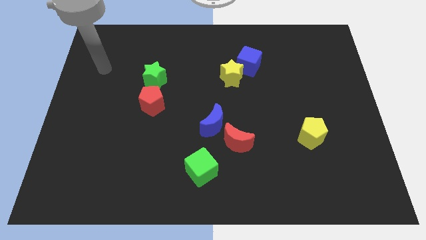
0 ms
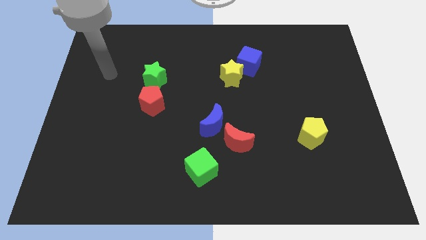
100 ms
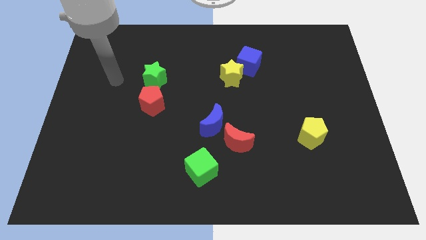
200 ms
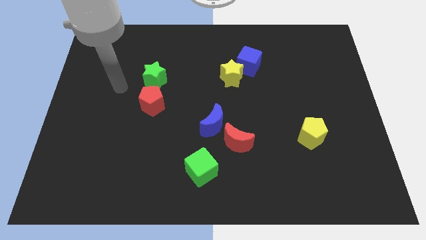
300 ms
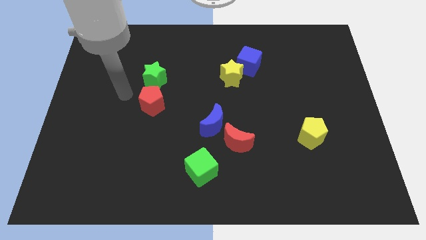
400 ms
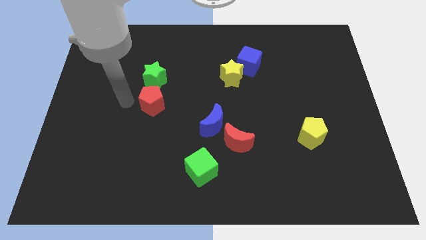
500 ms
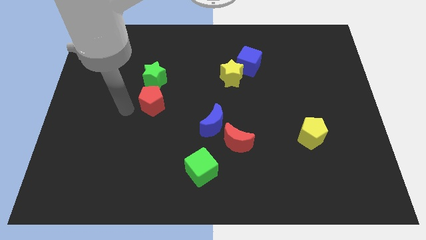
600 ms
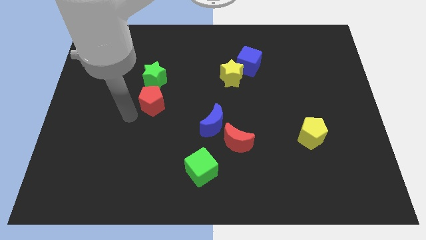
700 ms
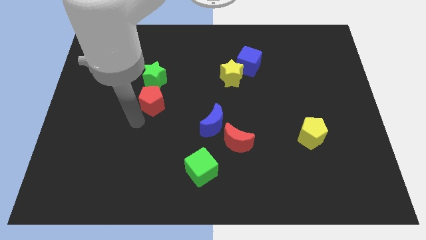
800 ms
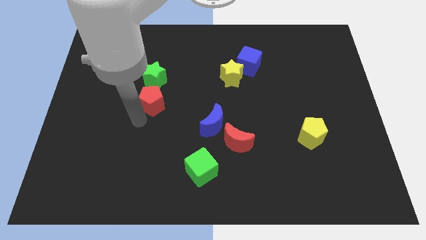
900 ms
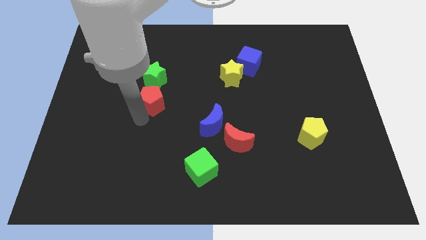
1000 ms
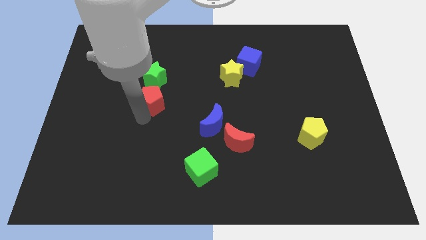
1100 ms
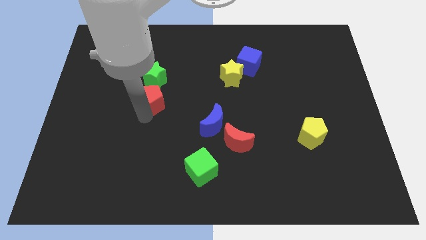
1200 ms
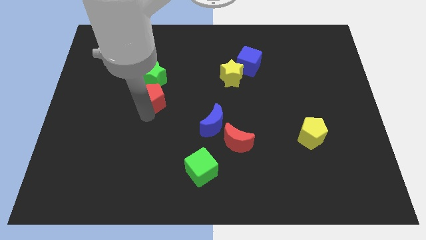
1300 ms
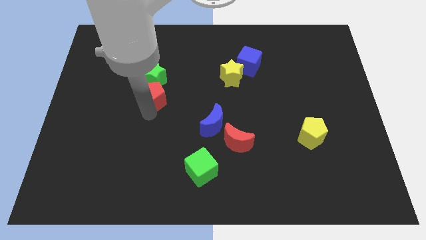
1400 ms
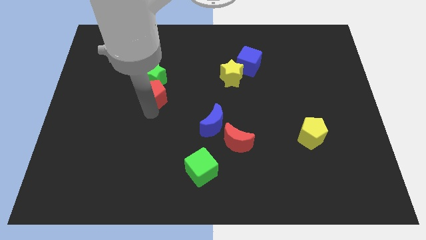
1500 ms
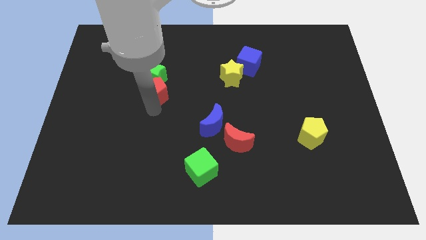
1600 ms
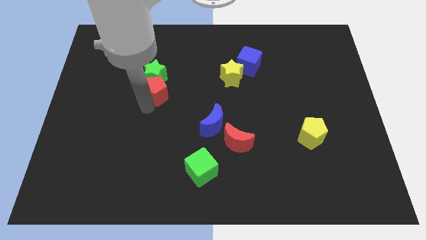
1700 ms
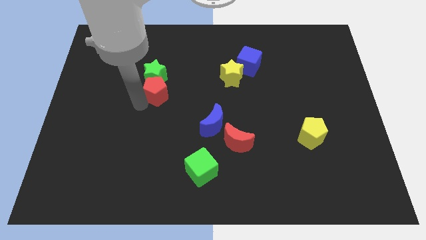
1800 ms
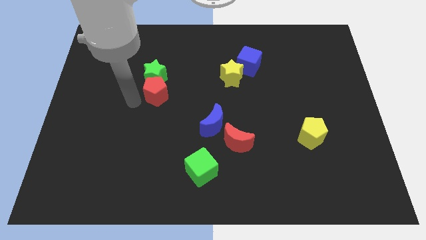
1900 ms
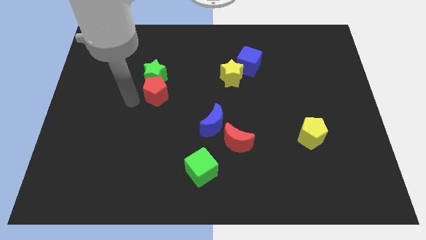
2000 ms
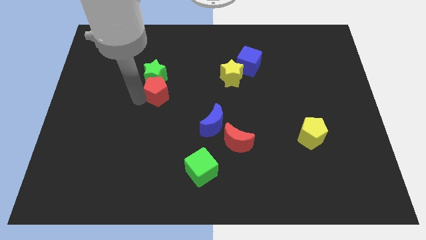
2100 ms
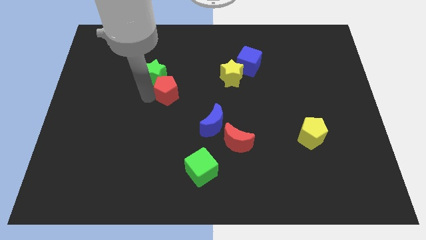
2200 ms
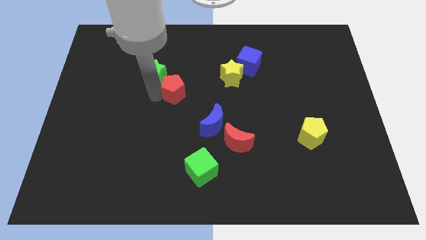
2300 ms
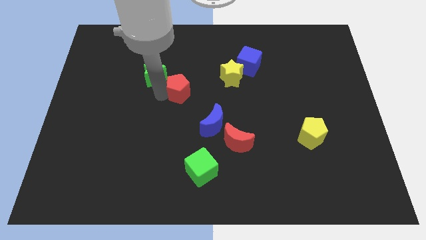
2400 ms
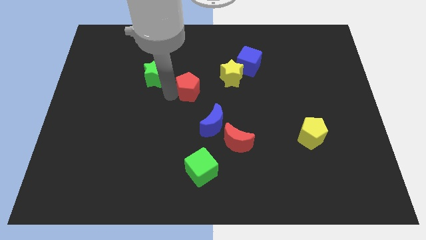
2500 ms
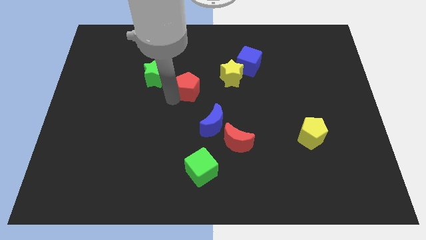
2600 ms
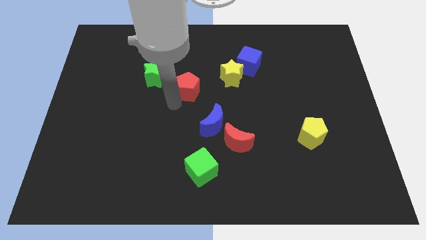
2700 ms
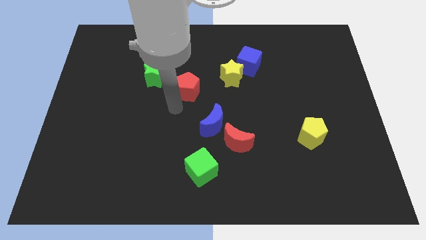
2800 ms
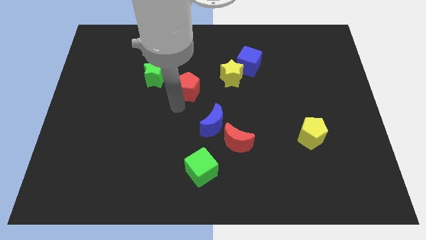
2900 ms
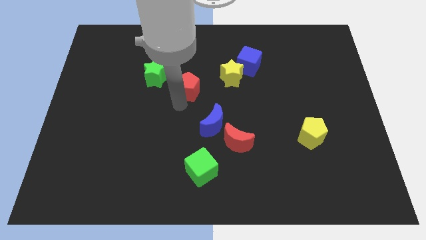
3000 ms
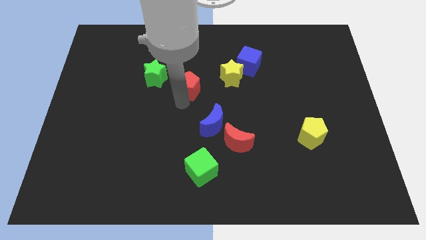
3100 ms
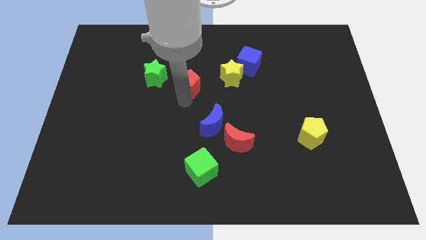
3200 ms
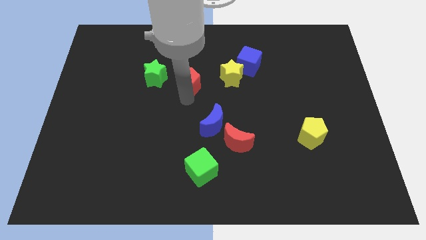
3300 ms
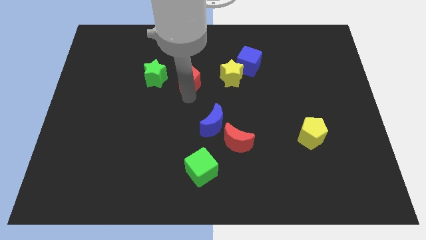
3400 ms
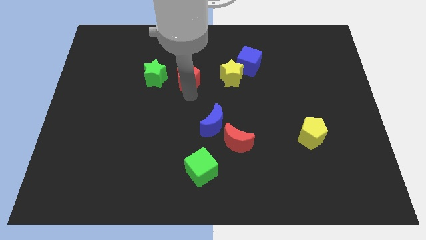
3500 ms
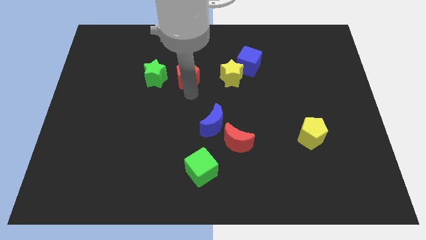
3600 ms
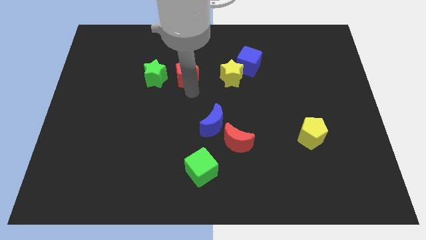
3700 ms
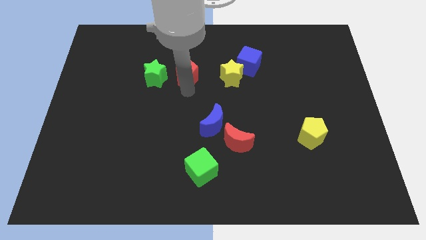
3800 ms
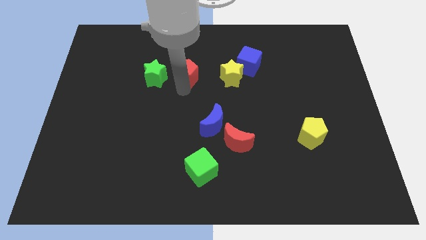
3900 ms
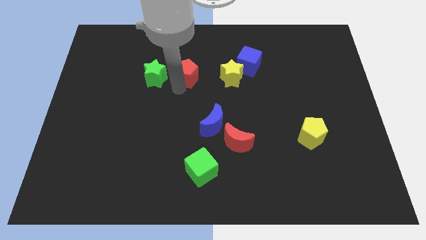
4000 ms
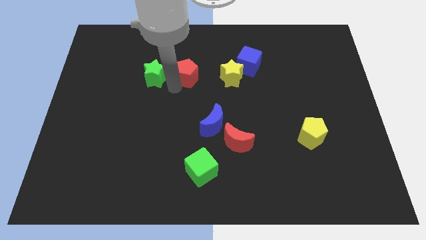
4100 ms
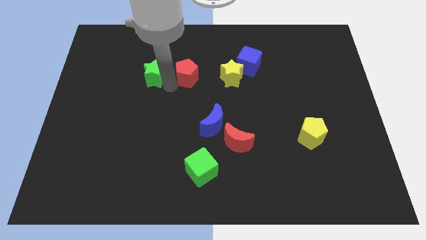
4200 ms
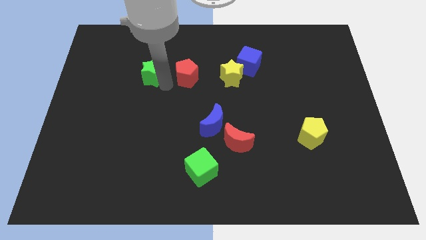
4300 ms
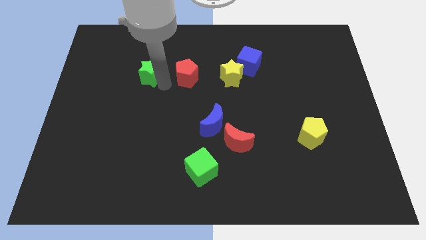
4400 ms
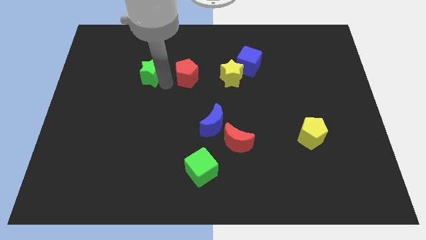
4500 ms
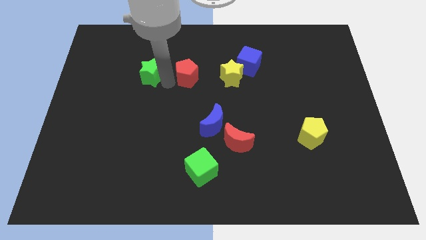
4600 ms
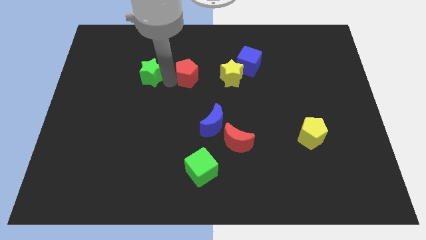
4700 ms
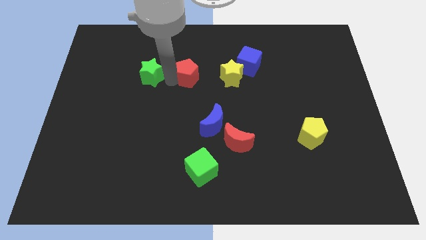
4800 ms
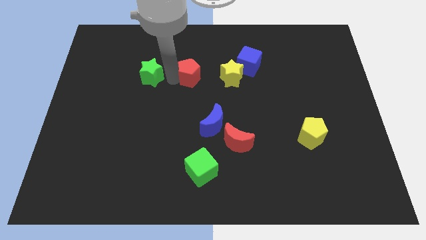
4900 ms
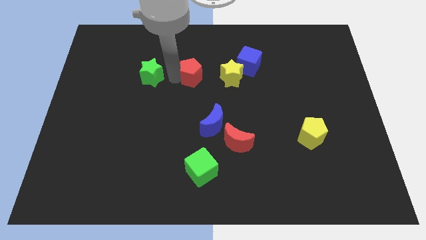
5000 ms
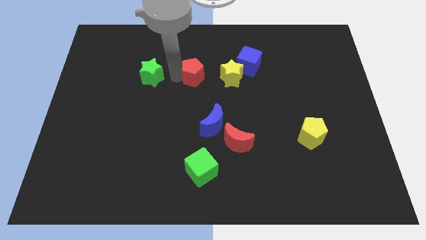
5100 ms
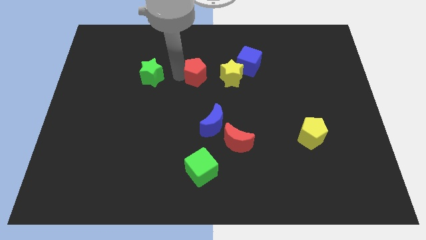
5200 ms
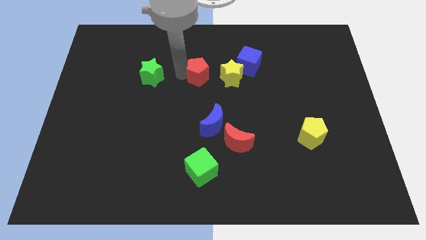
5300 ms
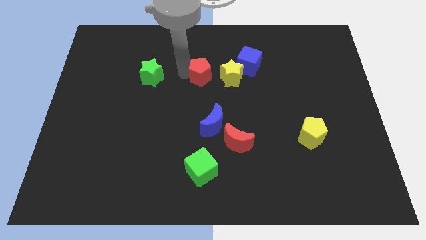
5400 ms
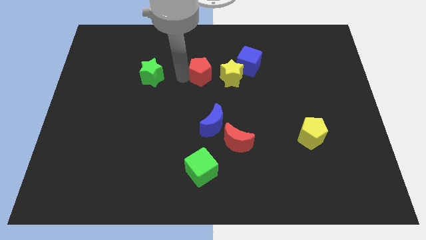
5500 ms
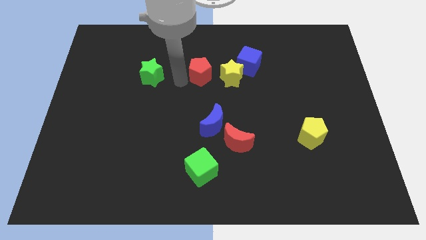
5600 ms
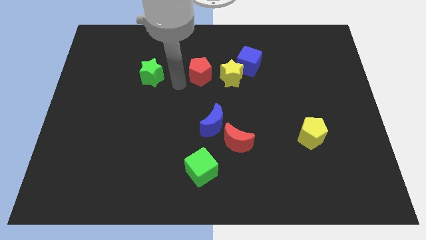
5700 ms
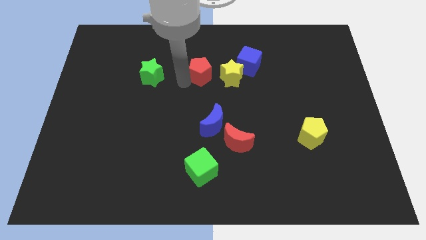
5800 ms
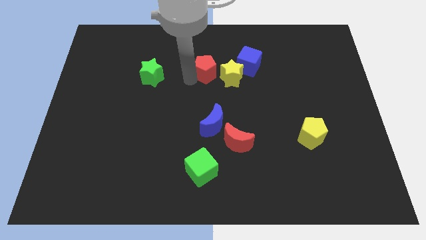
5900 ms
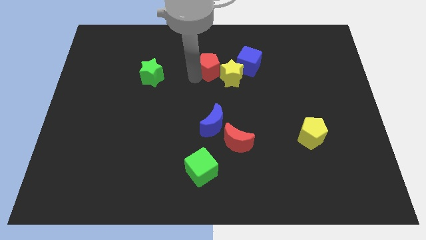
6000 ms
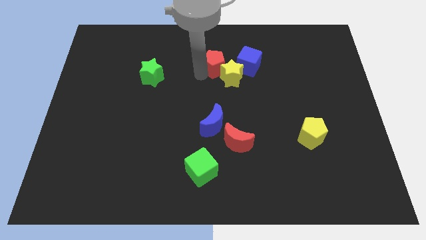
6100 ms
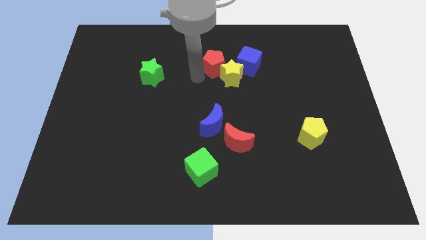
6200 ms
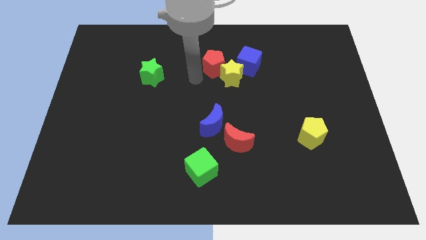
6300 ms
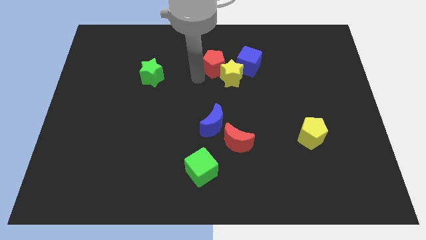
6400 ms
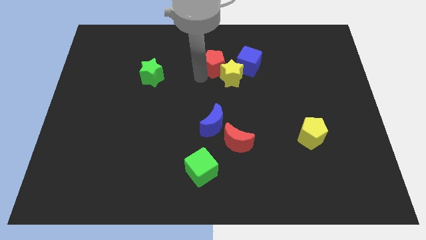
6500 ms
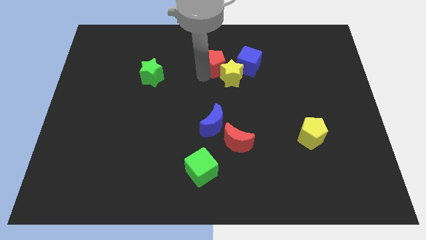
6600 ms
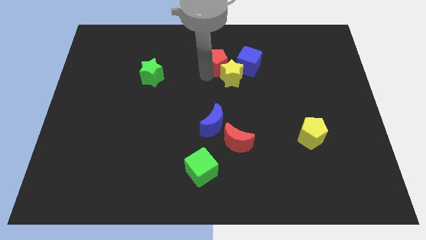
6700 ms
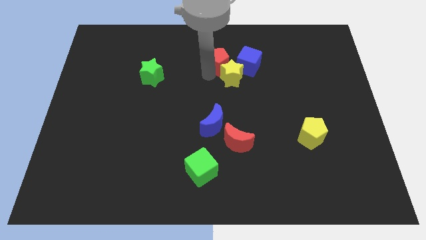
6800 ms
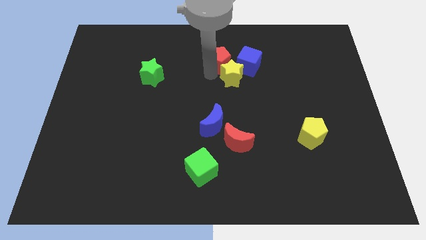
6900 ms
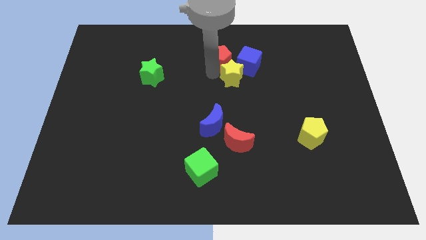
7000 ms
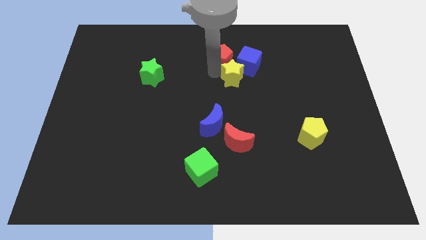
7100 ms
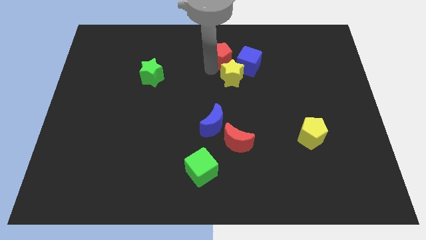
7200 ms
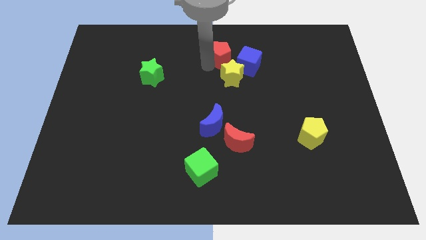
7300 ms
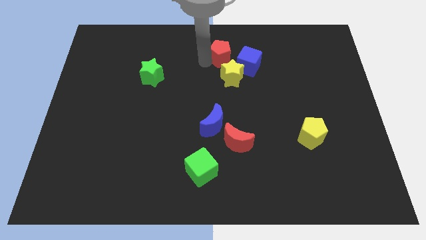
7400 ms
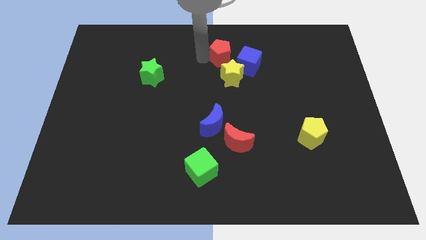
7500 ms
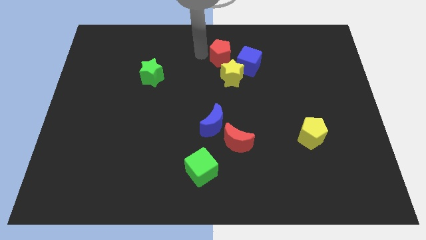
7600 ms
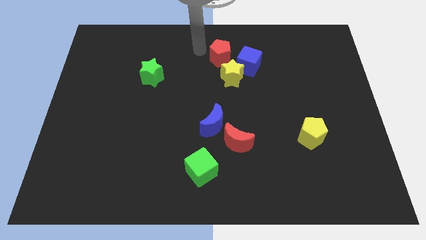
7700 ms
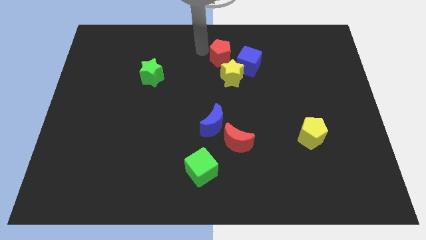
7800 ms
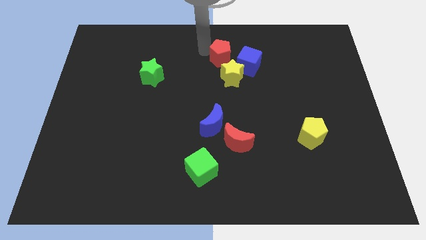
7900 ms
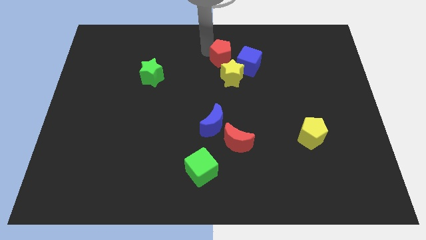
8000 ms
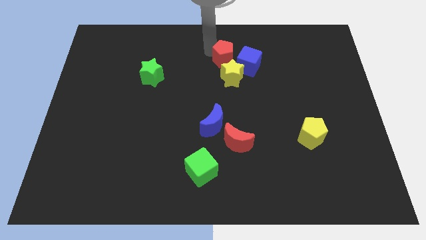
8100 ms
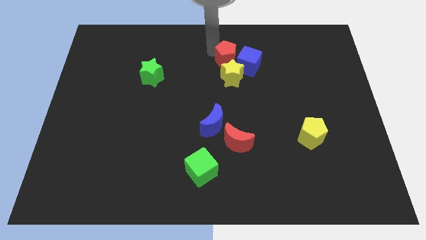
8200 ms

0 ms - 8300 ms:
push the red pentagon next to the blue cube
